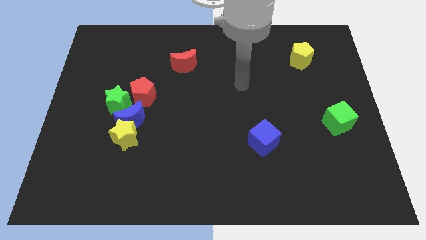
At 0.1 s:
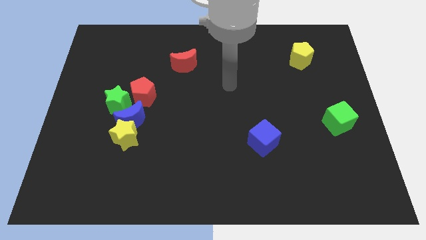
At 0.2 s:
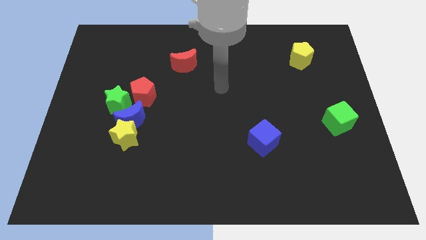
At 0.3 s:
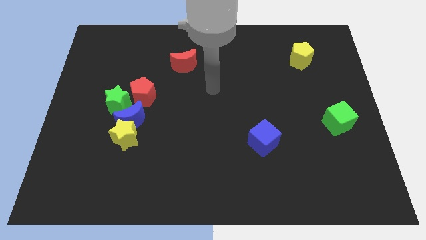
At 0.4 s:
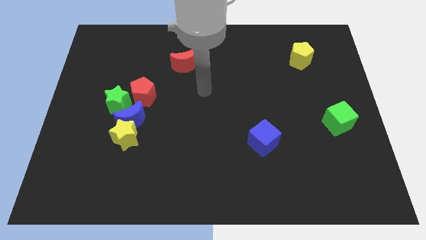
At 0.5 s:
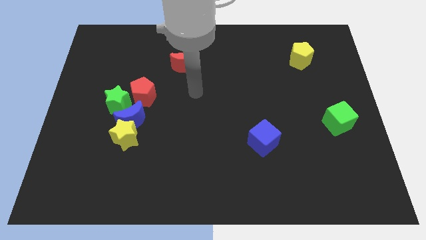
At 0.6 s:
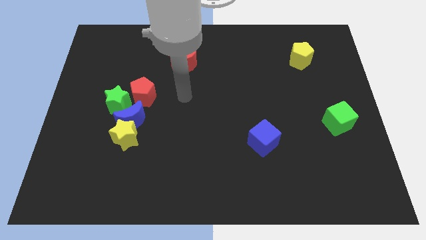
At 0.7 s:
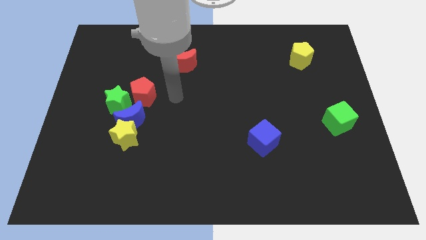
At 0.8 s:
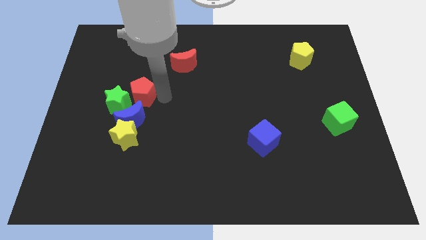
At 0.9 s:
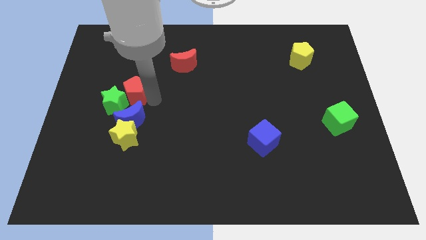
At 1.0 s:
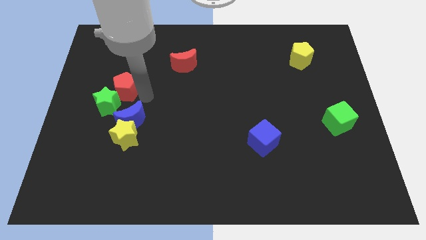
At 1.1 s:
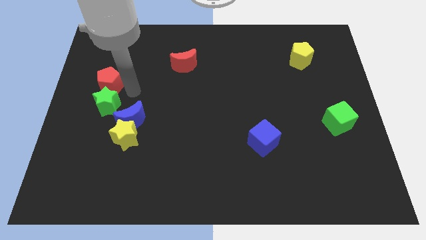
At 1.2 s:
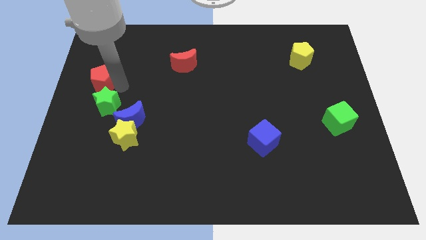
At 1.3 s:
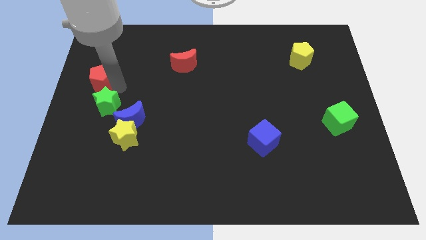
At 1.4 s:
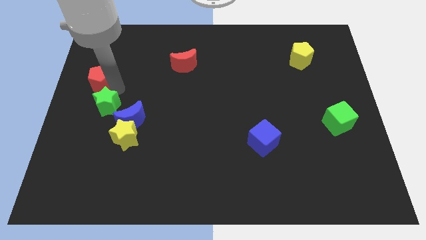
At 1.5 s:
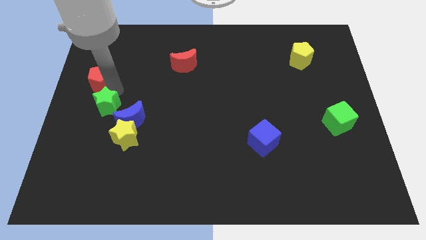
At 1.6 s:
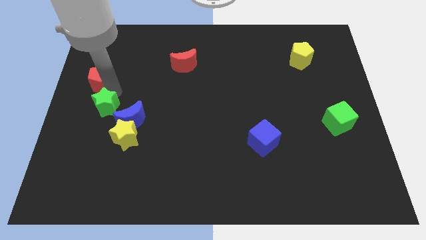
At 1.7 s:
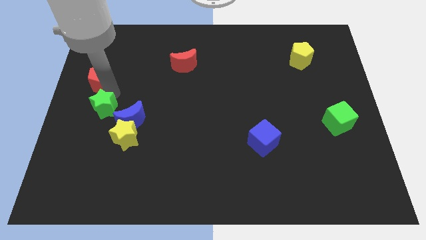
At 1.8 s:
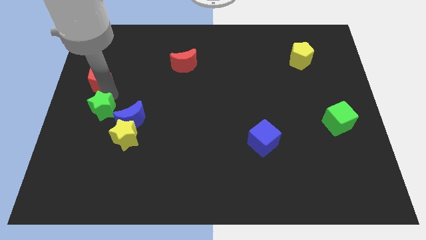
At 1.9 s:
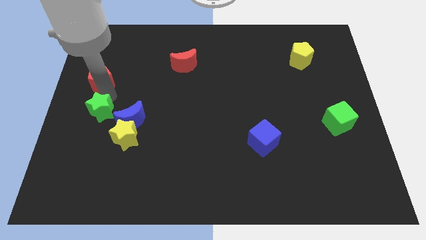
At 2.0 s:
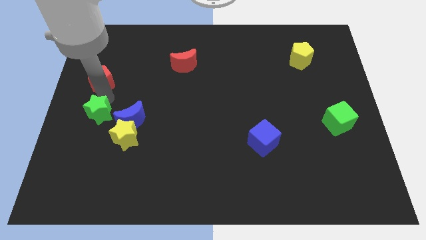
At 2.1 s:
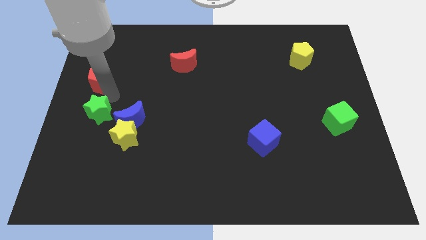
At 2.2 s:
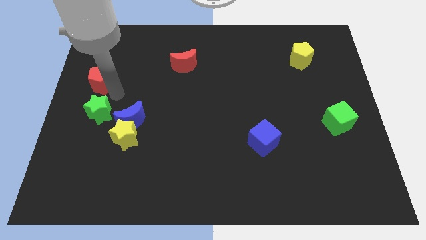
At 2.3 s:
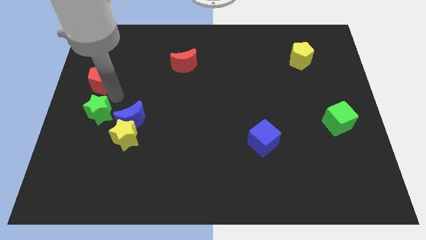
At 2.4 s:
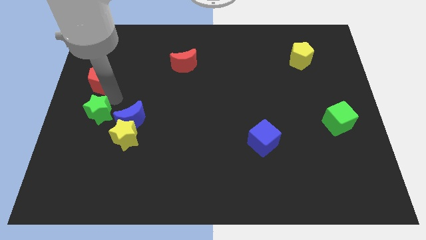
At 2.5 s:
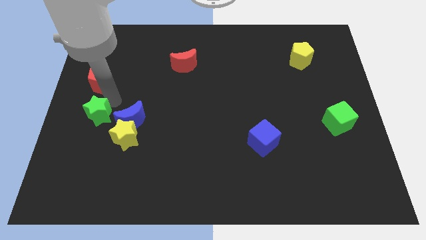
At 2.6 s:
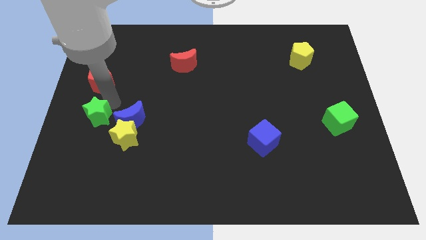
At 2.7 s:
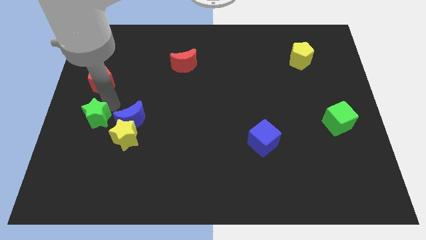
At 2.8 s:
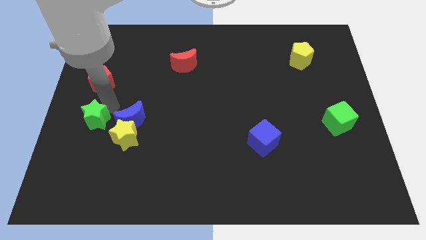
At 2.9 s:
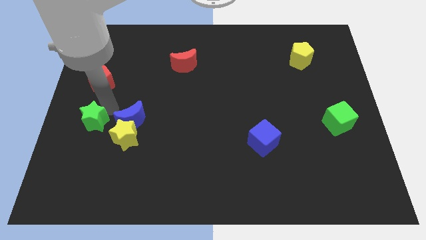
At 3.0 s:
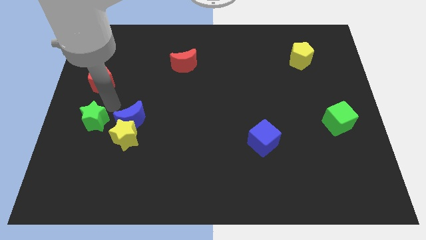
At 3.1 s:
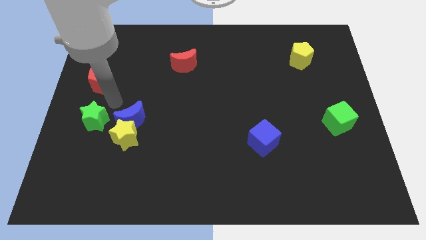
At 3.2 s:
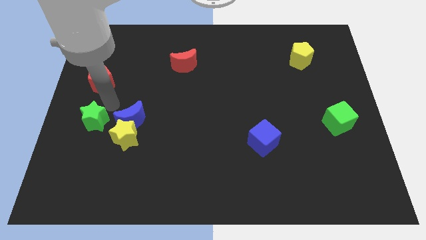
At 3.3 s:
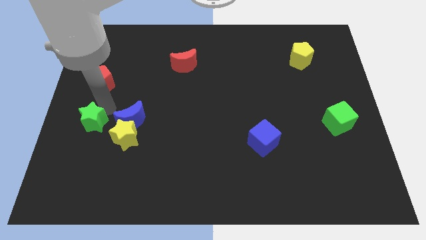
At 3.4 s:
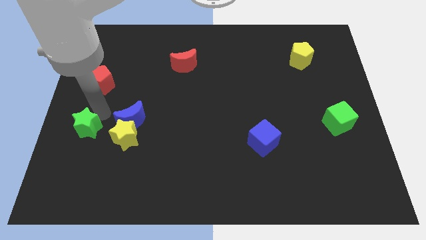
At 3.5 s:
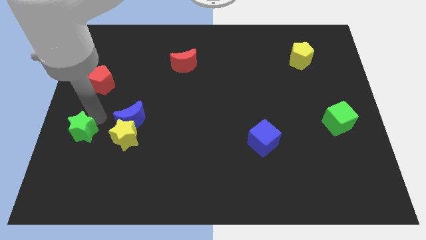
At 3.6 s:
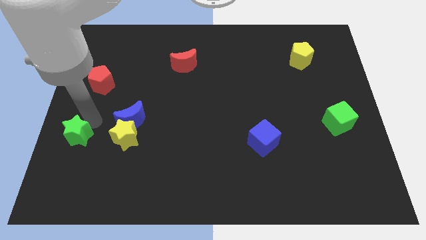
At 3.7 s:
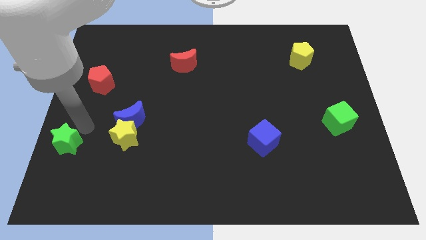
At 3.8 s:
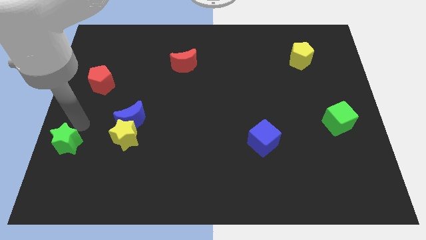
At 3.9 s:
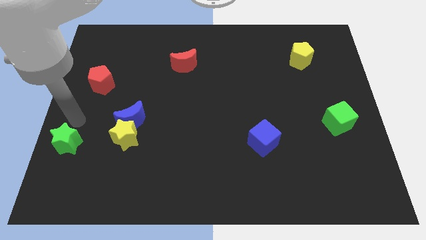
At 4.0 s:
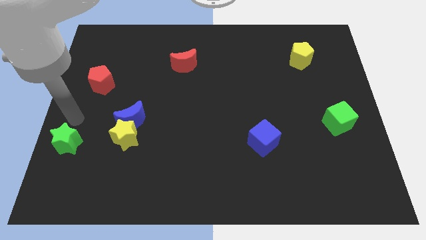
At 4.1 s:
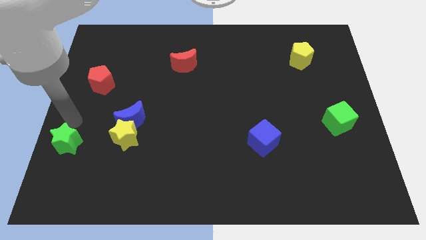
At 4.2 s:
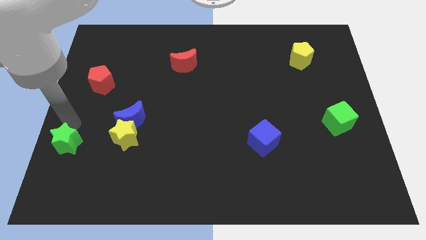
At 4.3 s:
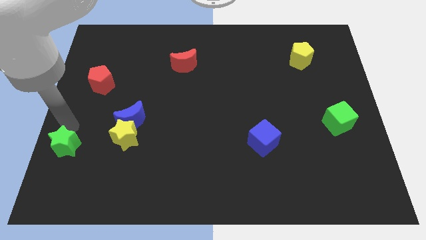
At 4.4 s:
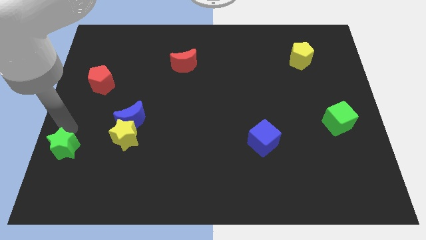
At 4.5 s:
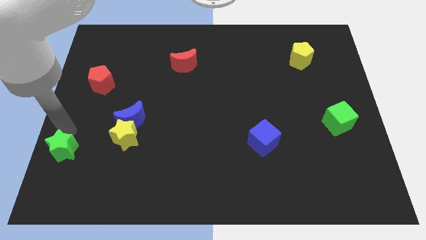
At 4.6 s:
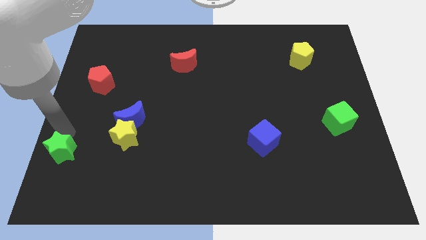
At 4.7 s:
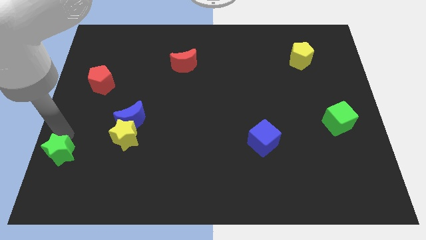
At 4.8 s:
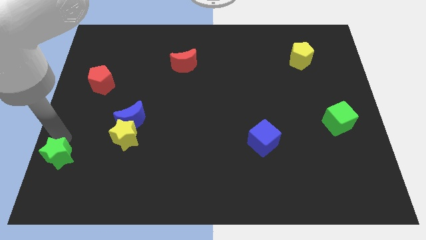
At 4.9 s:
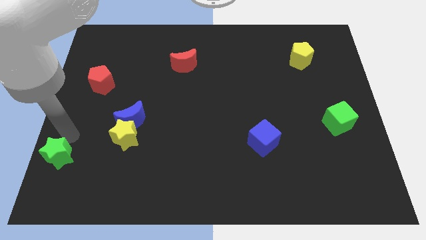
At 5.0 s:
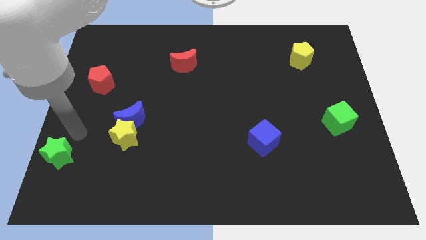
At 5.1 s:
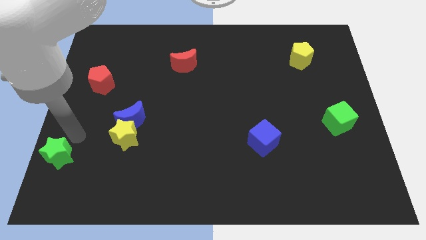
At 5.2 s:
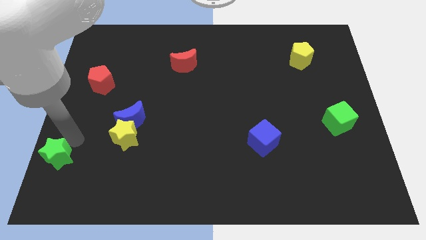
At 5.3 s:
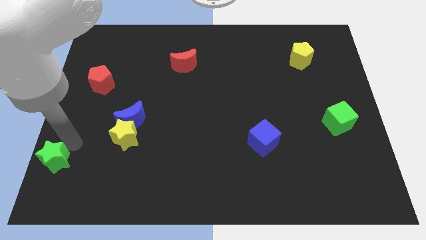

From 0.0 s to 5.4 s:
slide the green star to the bottom left

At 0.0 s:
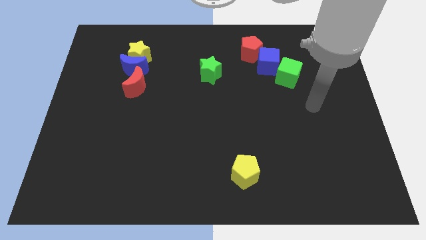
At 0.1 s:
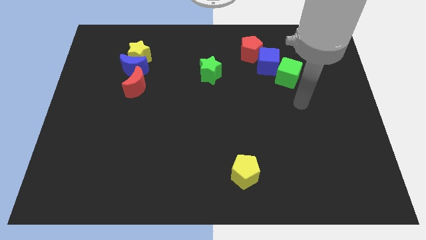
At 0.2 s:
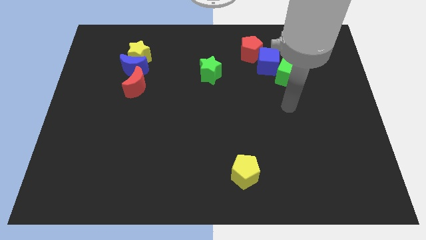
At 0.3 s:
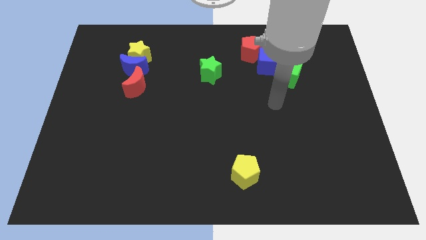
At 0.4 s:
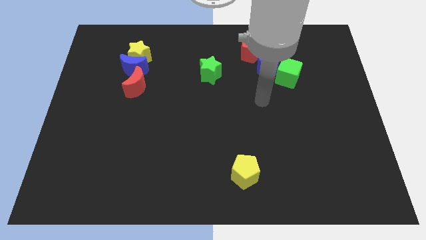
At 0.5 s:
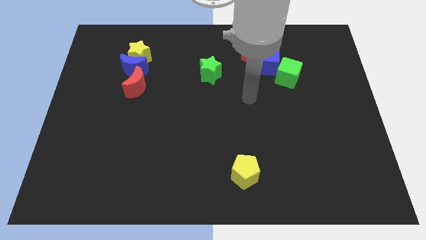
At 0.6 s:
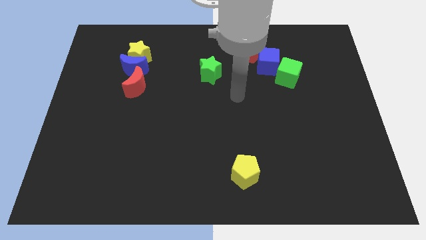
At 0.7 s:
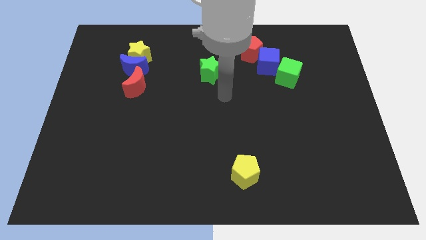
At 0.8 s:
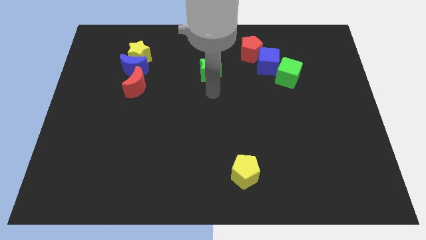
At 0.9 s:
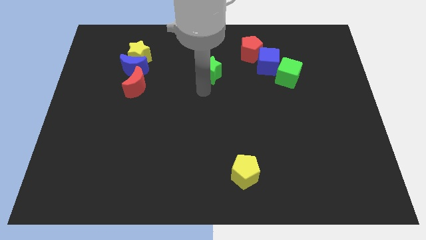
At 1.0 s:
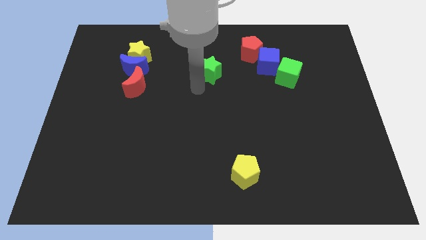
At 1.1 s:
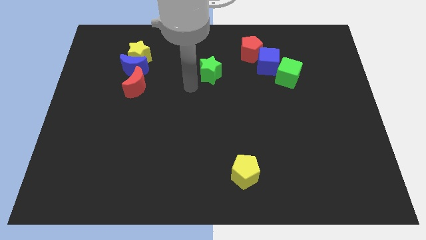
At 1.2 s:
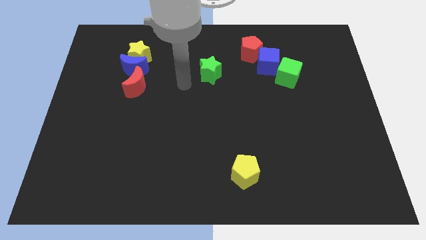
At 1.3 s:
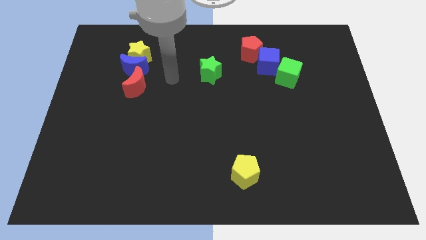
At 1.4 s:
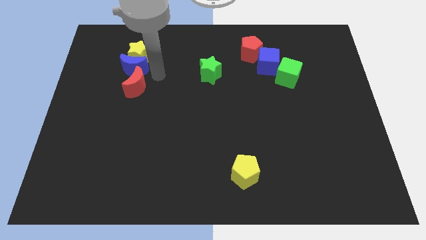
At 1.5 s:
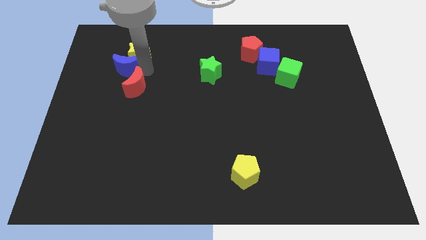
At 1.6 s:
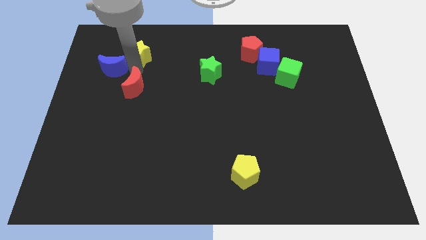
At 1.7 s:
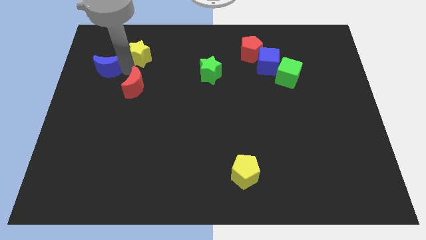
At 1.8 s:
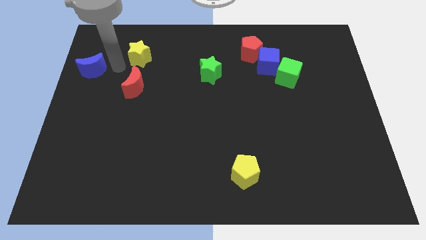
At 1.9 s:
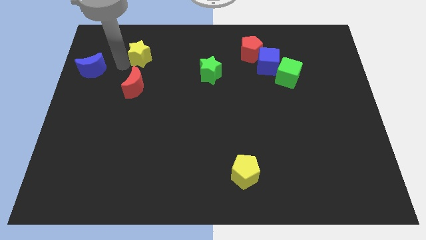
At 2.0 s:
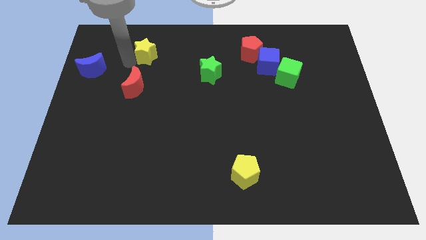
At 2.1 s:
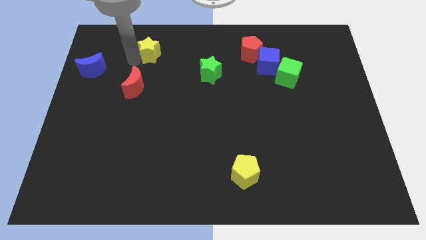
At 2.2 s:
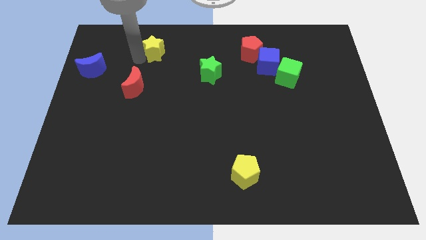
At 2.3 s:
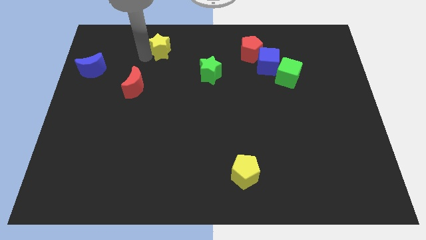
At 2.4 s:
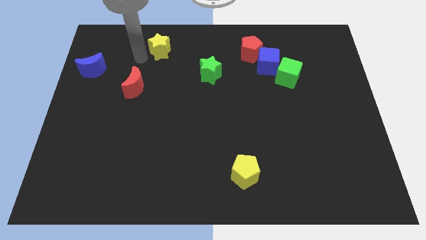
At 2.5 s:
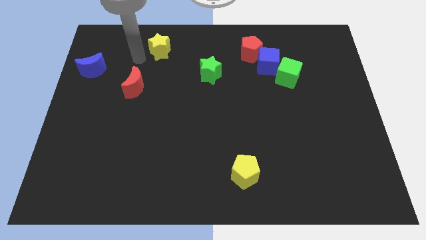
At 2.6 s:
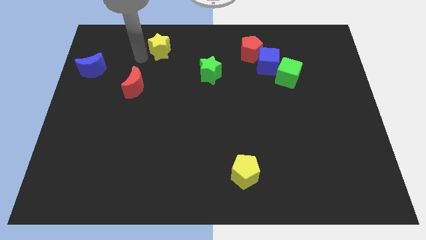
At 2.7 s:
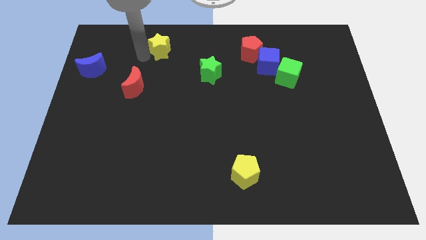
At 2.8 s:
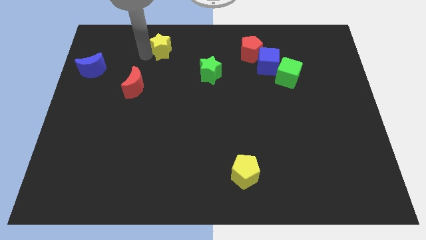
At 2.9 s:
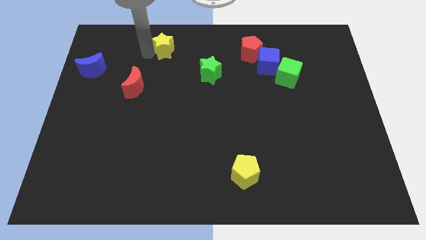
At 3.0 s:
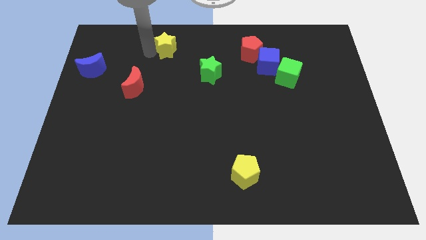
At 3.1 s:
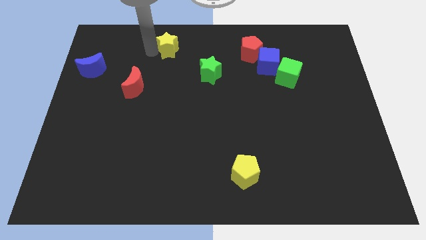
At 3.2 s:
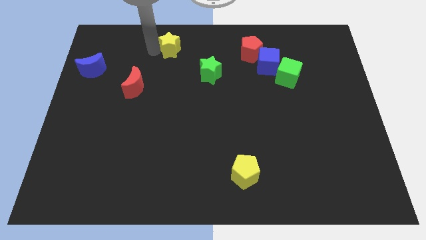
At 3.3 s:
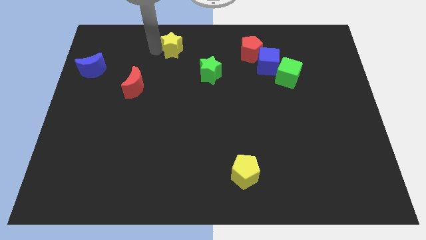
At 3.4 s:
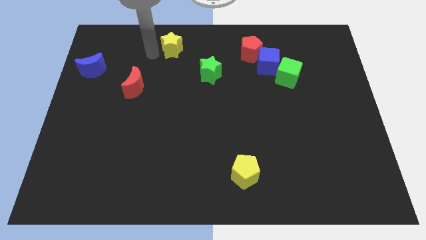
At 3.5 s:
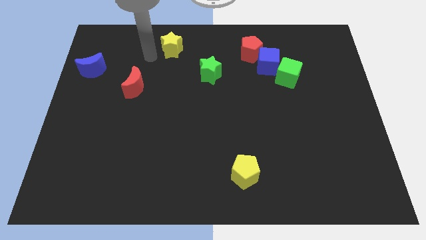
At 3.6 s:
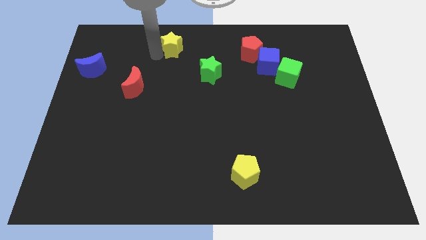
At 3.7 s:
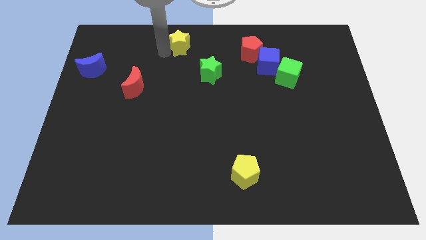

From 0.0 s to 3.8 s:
push the yellow star to the top side
